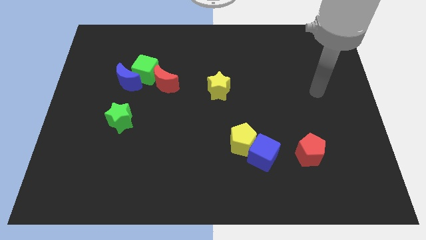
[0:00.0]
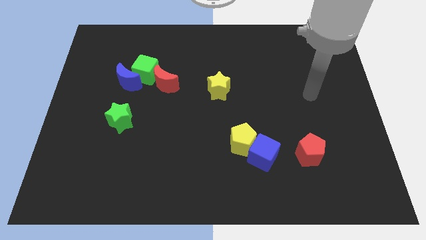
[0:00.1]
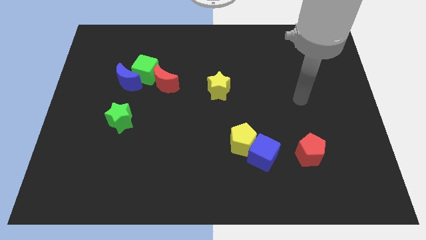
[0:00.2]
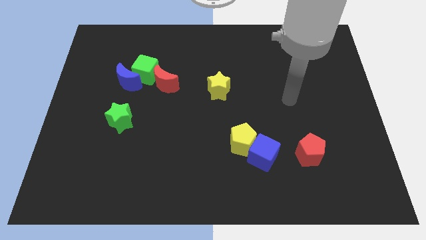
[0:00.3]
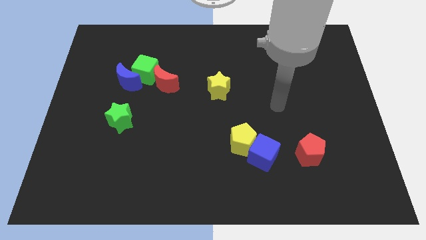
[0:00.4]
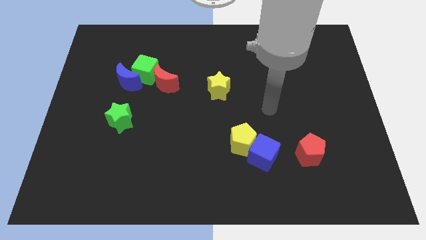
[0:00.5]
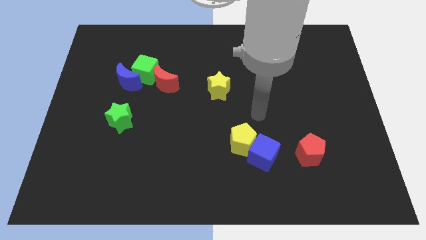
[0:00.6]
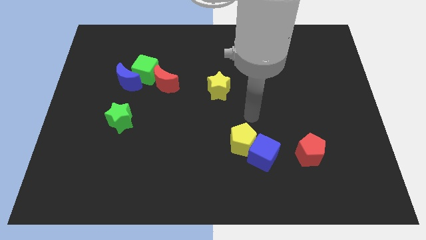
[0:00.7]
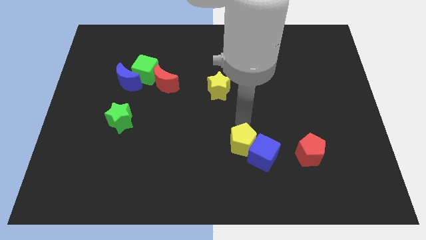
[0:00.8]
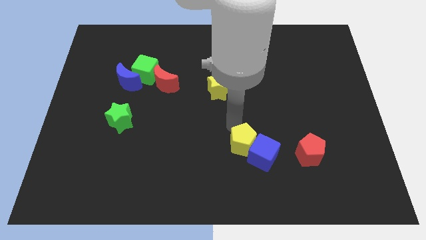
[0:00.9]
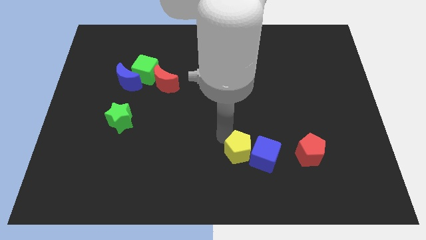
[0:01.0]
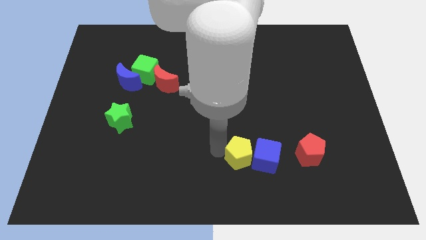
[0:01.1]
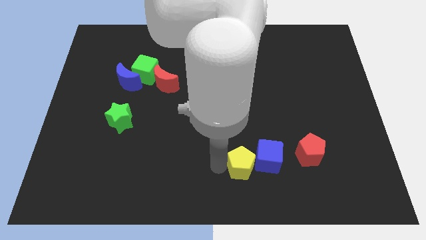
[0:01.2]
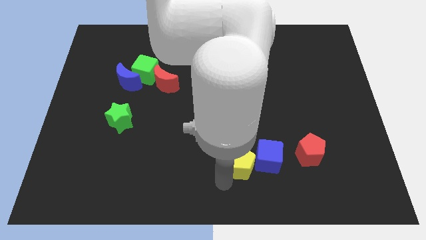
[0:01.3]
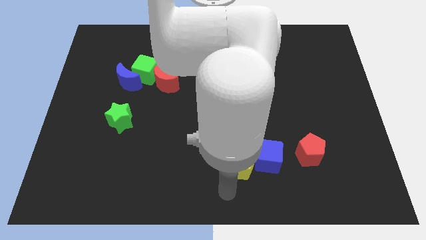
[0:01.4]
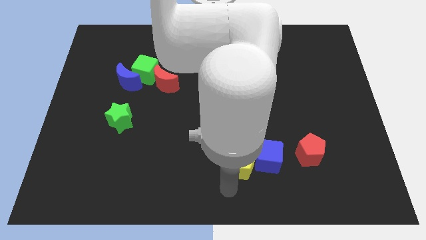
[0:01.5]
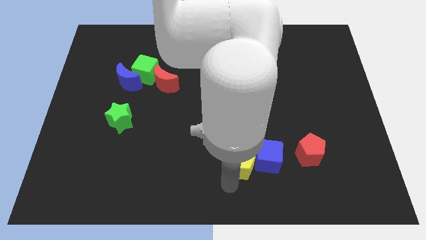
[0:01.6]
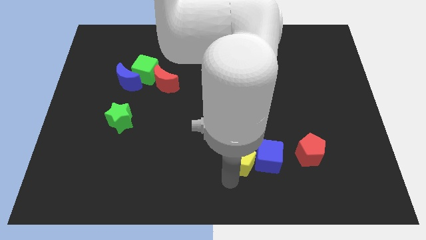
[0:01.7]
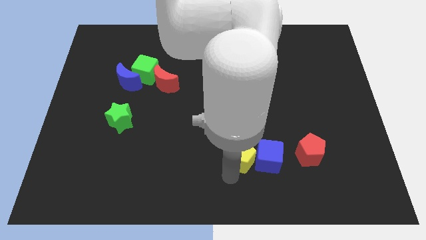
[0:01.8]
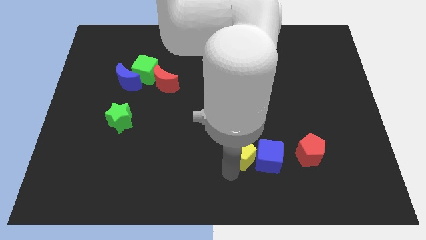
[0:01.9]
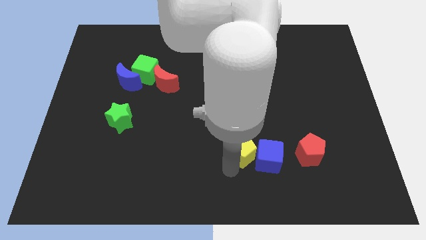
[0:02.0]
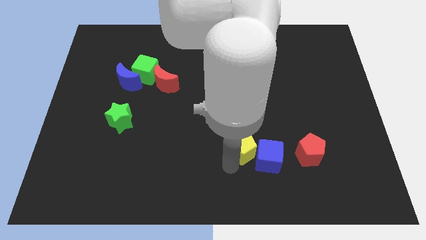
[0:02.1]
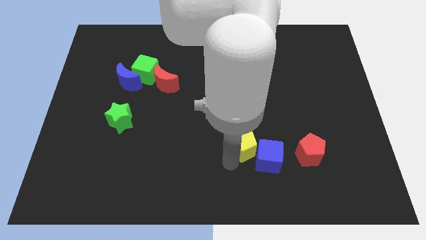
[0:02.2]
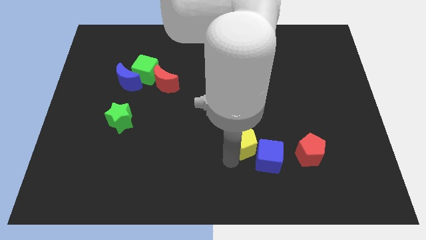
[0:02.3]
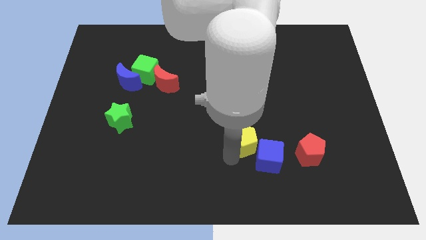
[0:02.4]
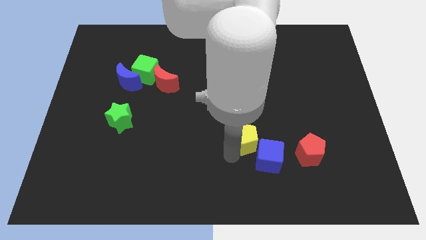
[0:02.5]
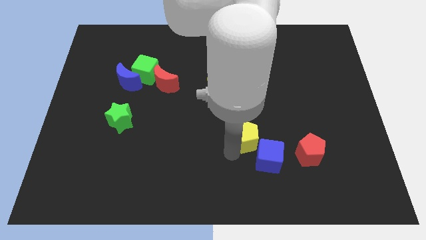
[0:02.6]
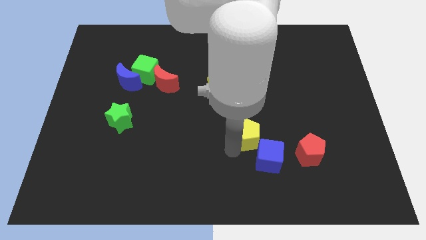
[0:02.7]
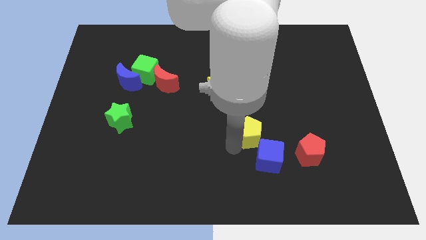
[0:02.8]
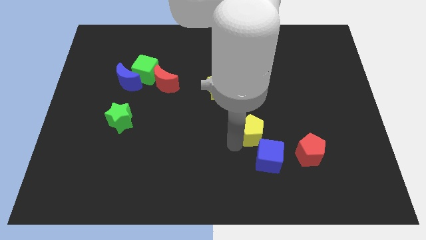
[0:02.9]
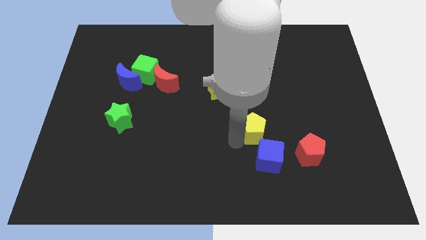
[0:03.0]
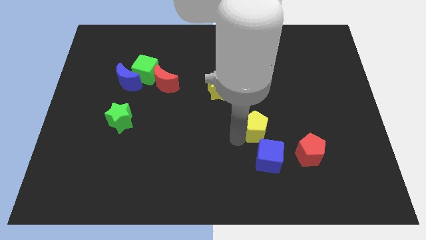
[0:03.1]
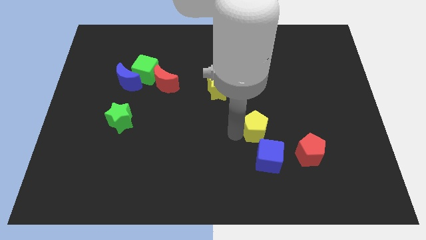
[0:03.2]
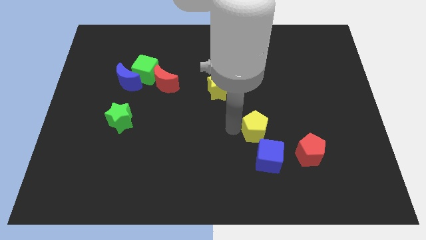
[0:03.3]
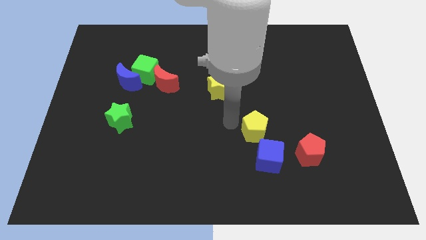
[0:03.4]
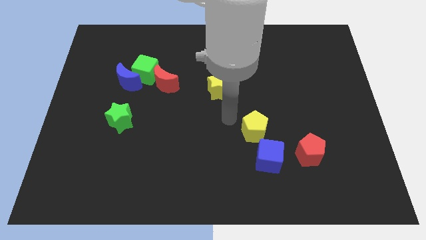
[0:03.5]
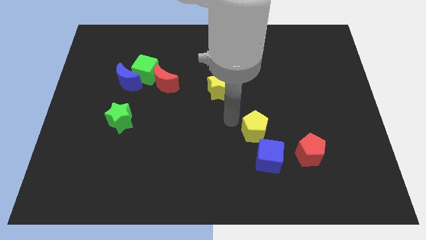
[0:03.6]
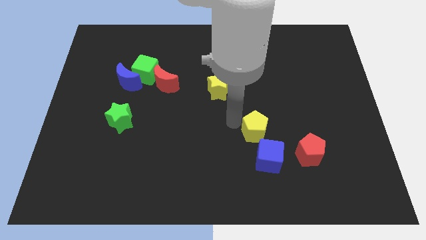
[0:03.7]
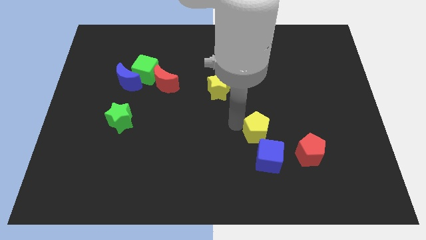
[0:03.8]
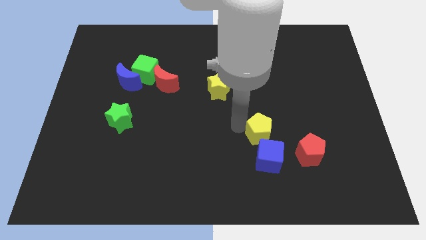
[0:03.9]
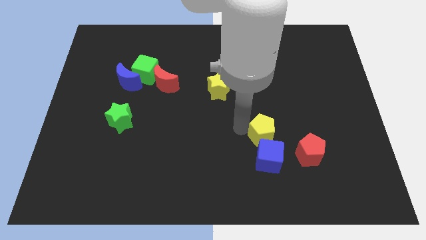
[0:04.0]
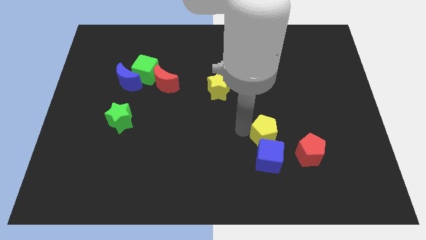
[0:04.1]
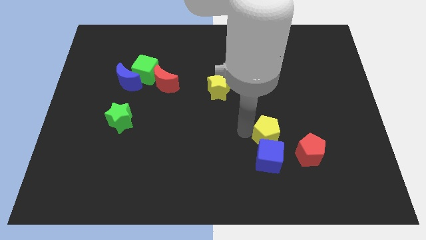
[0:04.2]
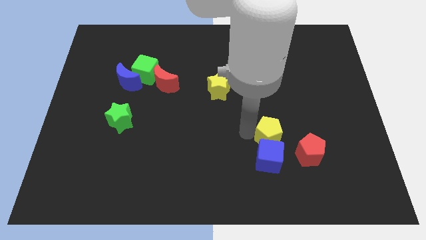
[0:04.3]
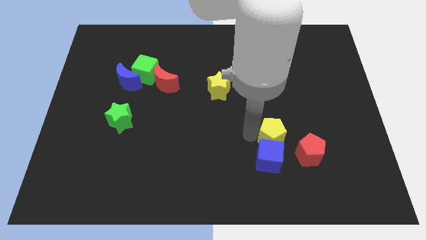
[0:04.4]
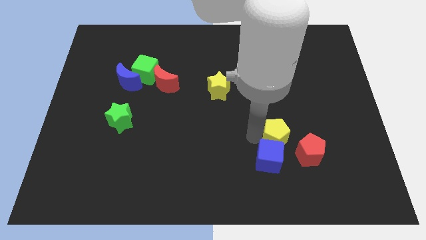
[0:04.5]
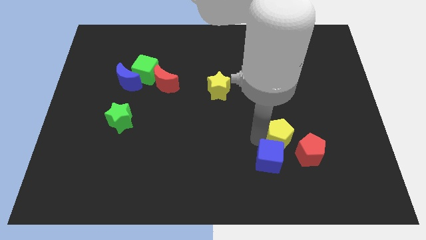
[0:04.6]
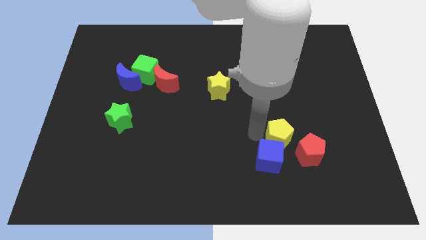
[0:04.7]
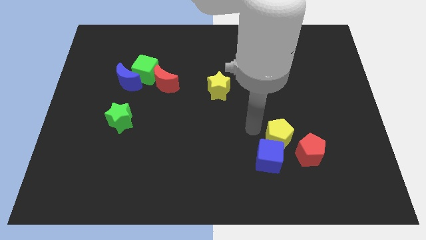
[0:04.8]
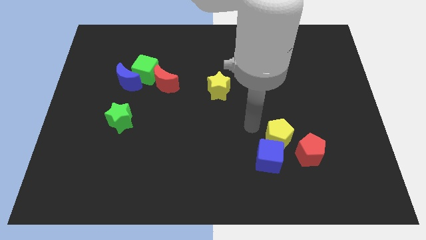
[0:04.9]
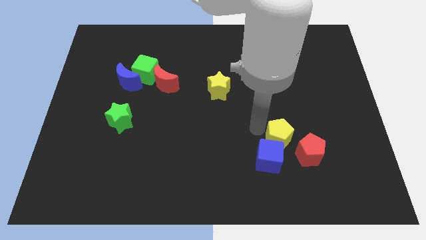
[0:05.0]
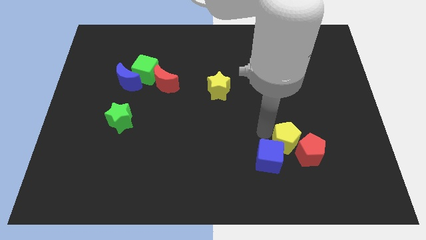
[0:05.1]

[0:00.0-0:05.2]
slide the yellow pentagon towards the red pentagon

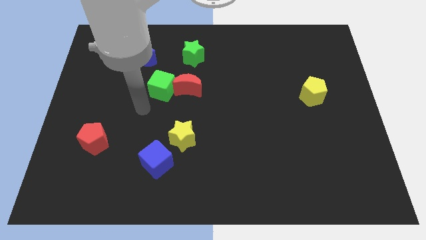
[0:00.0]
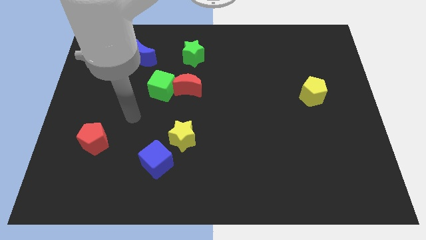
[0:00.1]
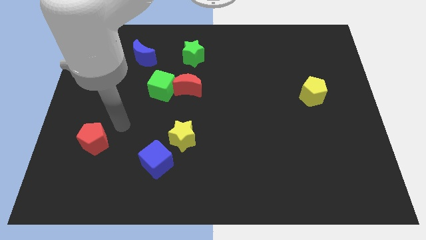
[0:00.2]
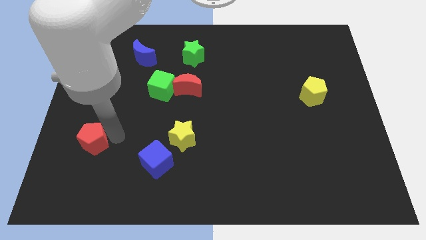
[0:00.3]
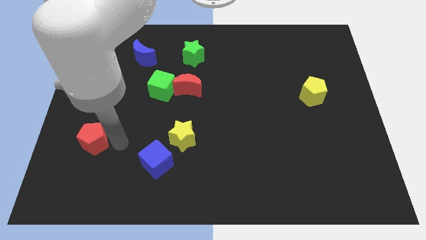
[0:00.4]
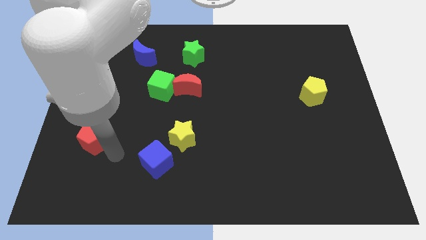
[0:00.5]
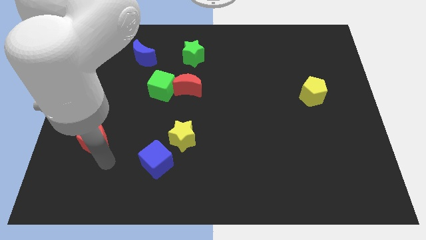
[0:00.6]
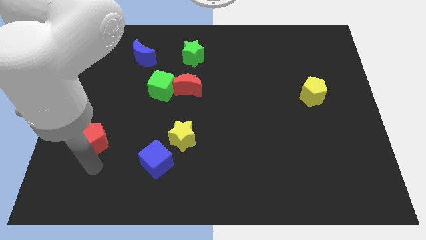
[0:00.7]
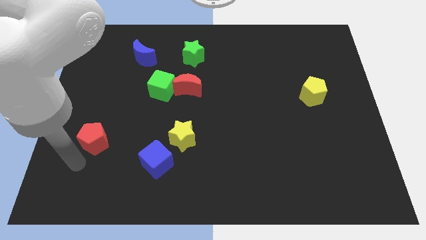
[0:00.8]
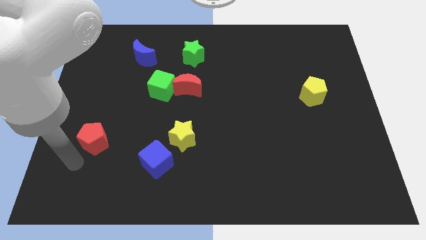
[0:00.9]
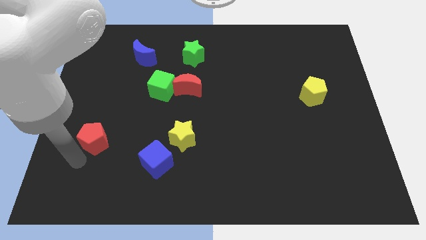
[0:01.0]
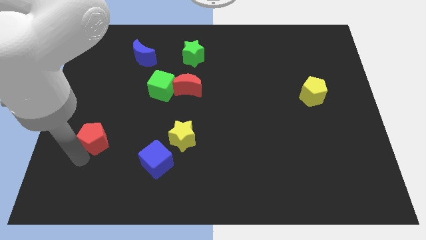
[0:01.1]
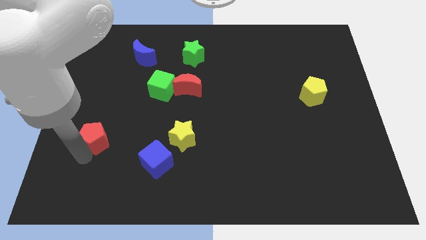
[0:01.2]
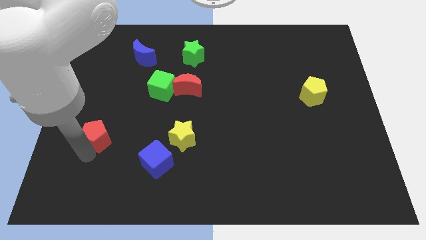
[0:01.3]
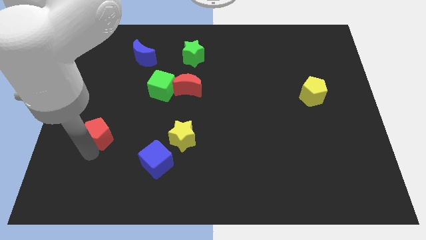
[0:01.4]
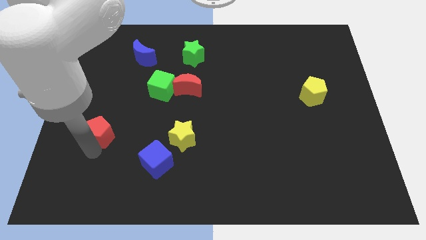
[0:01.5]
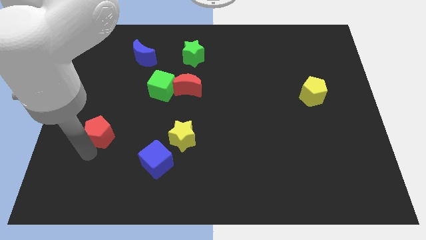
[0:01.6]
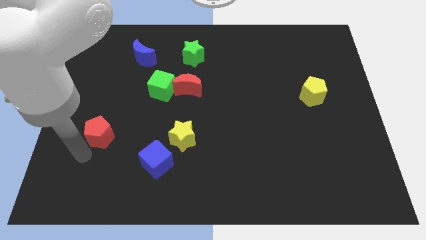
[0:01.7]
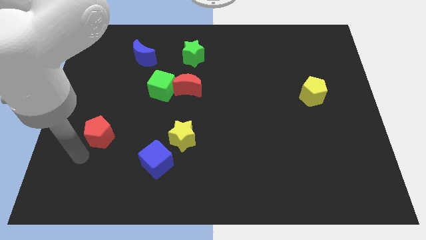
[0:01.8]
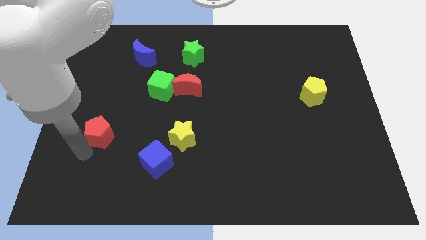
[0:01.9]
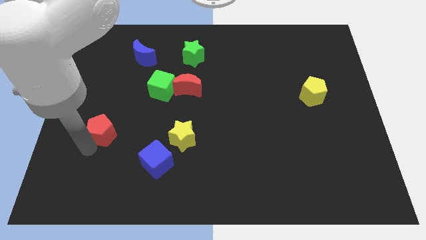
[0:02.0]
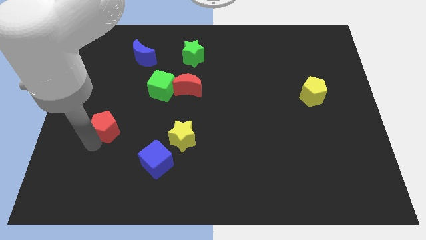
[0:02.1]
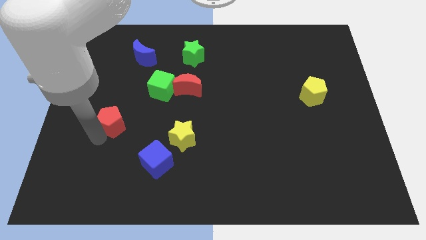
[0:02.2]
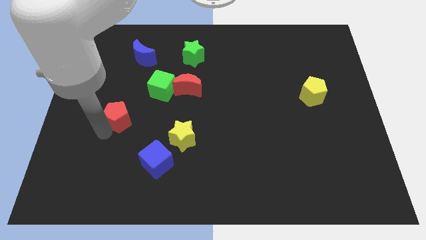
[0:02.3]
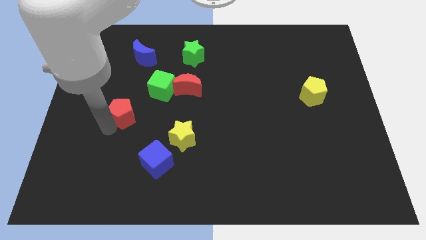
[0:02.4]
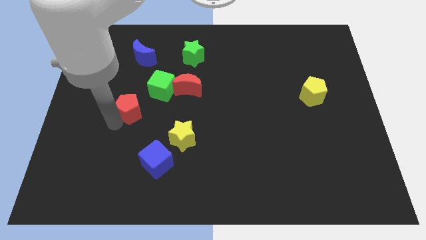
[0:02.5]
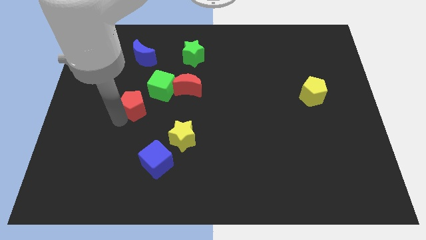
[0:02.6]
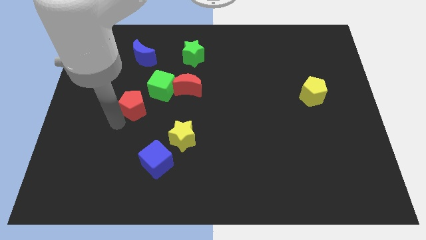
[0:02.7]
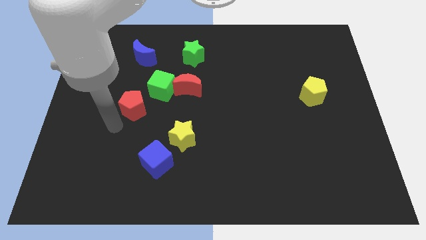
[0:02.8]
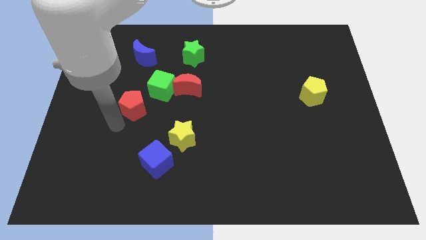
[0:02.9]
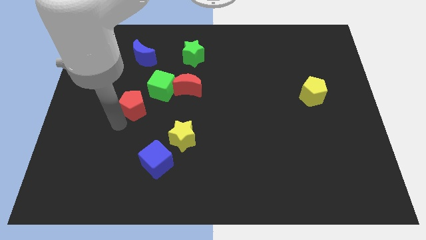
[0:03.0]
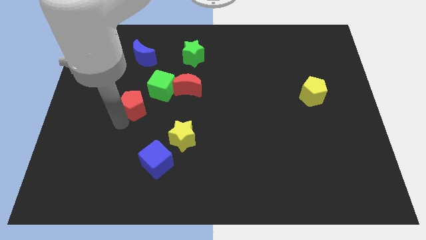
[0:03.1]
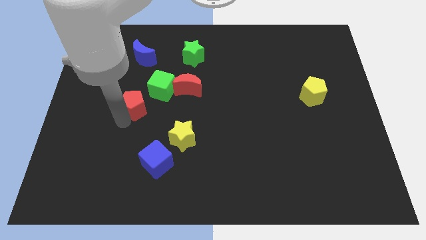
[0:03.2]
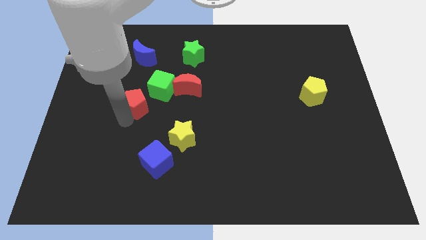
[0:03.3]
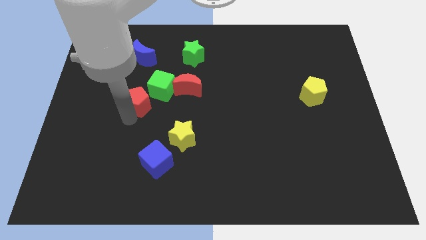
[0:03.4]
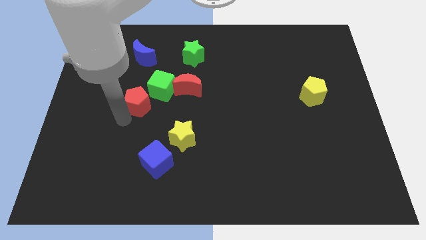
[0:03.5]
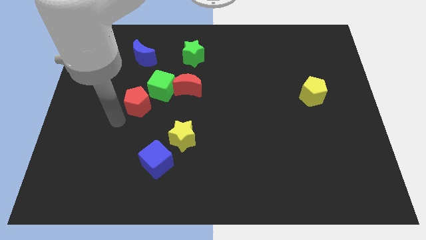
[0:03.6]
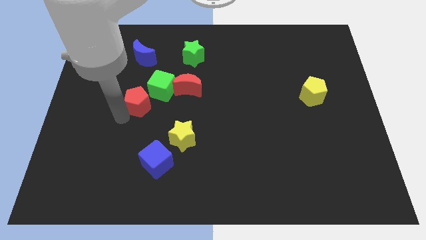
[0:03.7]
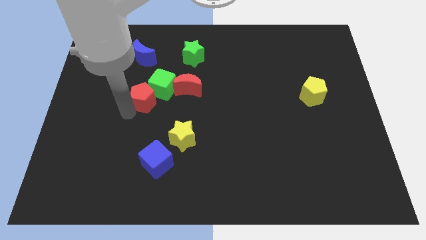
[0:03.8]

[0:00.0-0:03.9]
move the red pentagon close to the green cube
